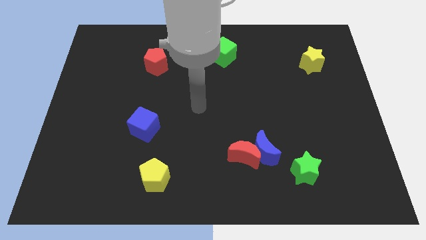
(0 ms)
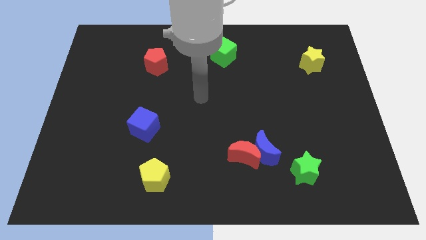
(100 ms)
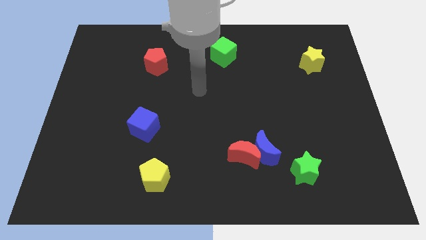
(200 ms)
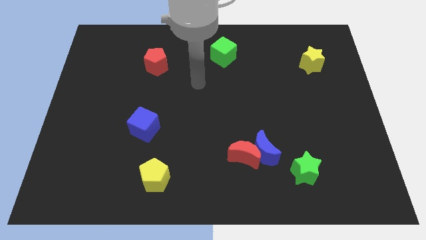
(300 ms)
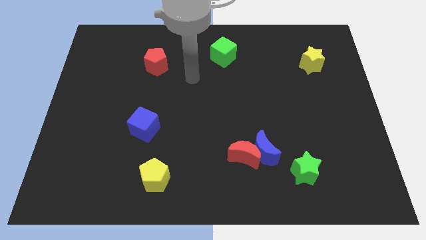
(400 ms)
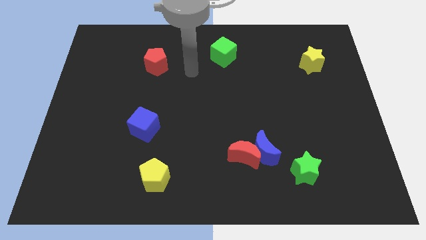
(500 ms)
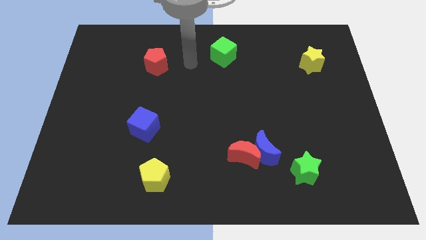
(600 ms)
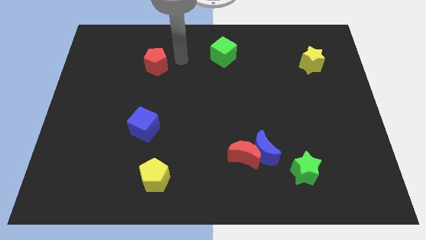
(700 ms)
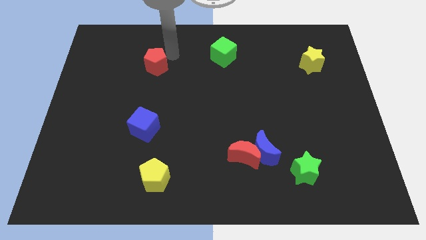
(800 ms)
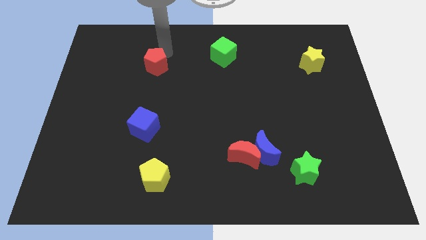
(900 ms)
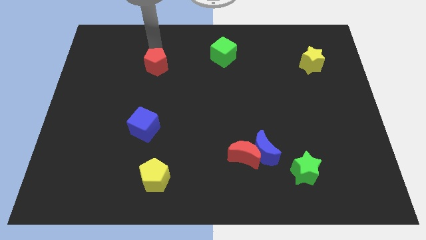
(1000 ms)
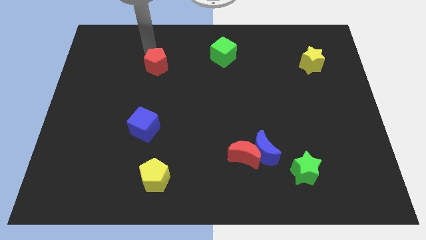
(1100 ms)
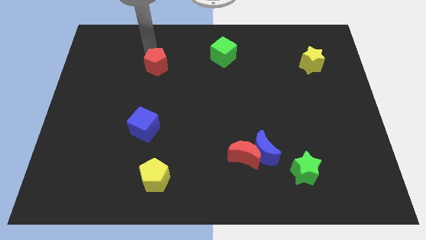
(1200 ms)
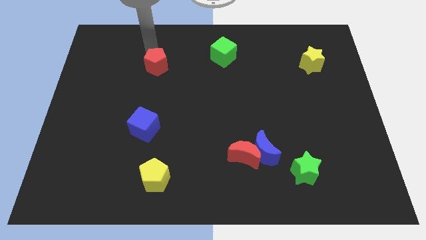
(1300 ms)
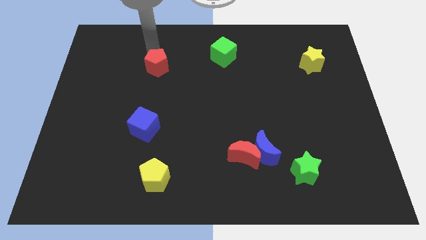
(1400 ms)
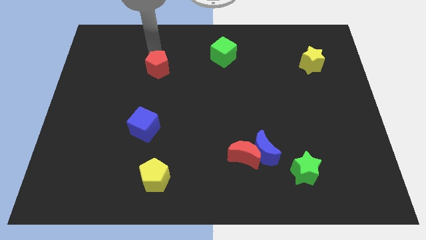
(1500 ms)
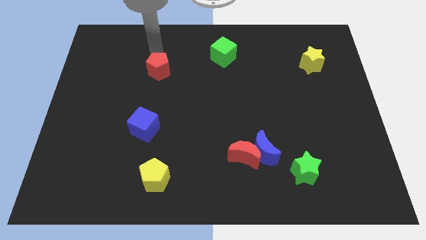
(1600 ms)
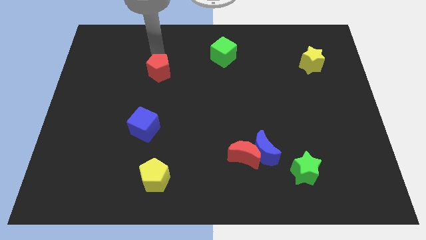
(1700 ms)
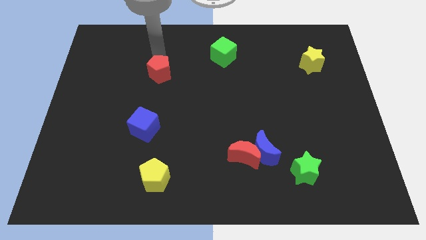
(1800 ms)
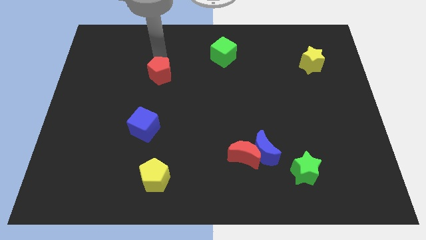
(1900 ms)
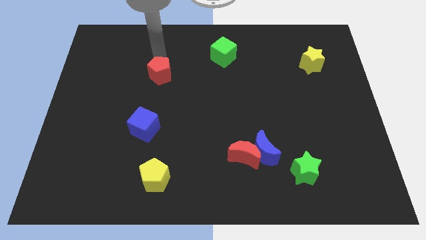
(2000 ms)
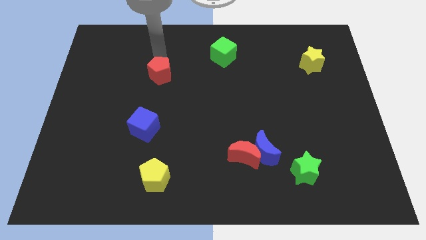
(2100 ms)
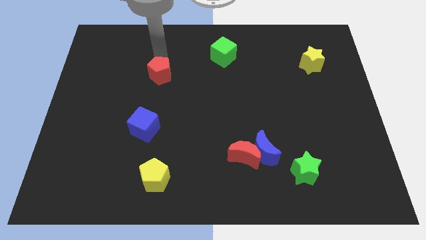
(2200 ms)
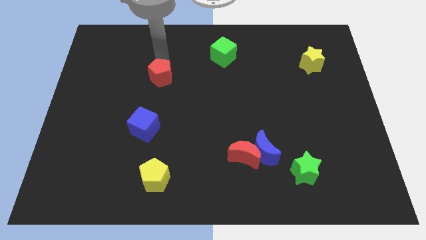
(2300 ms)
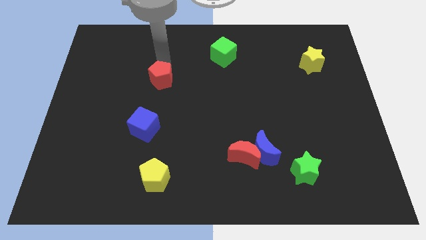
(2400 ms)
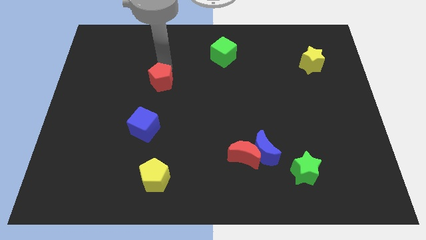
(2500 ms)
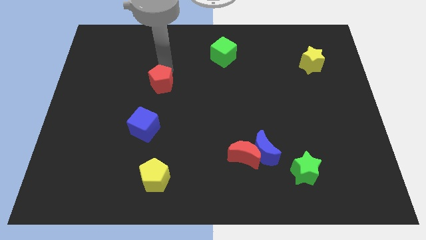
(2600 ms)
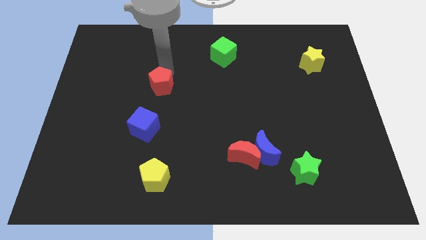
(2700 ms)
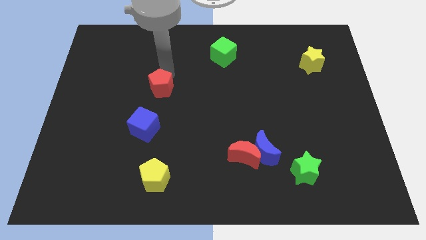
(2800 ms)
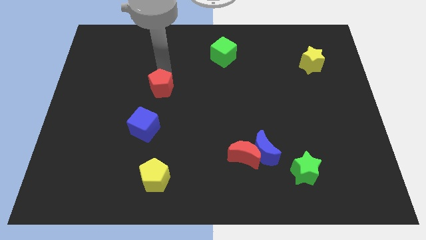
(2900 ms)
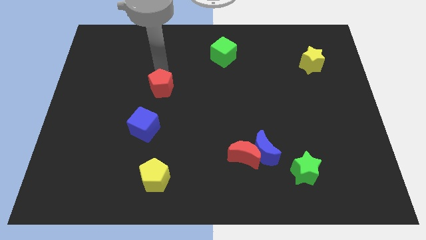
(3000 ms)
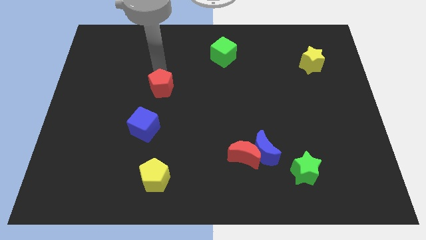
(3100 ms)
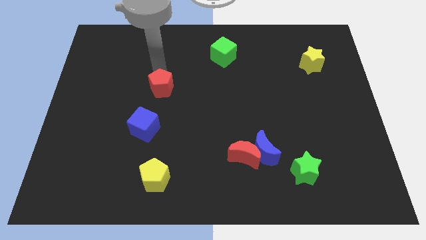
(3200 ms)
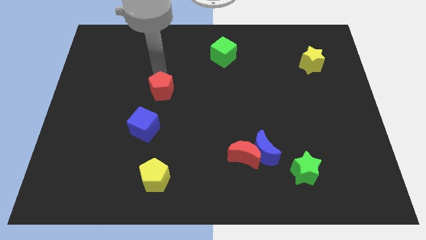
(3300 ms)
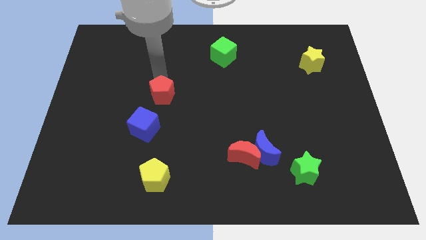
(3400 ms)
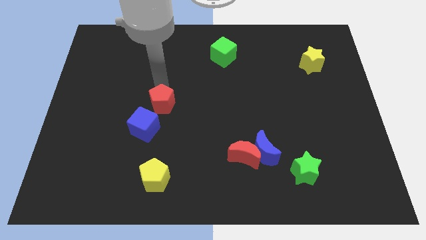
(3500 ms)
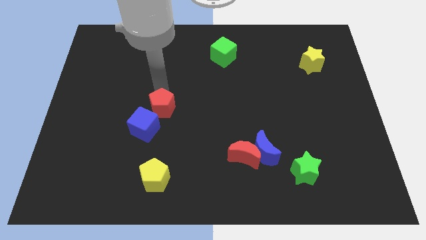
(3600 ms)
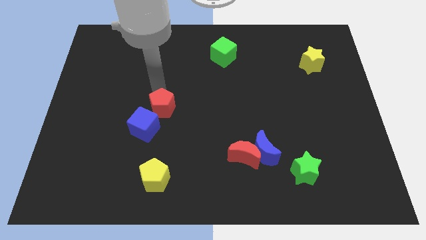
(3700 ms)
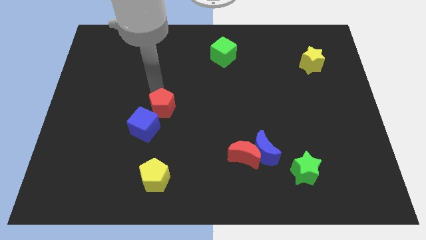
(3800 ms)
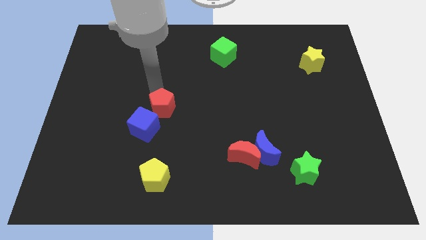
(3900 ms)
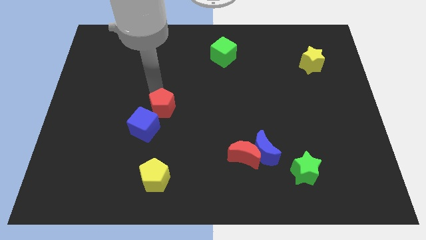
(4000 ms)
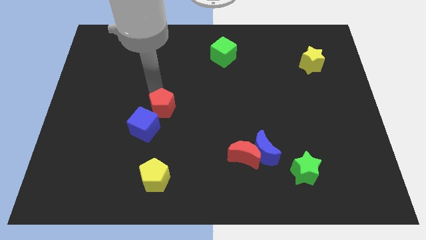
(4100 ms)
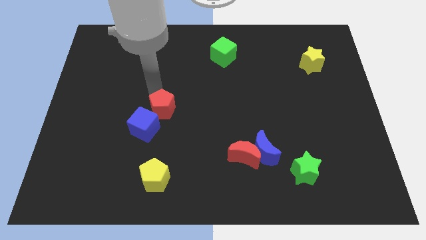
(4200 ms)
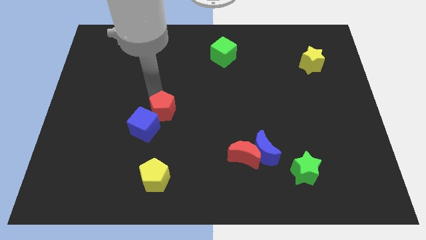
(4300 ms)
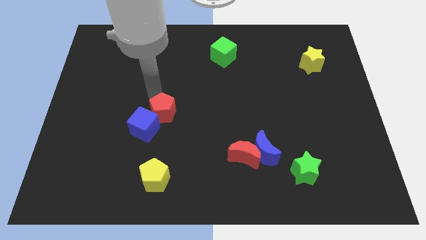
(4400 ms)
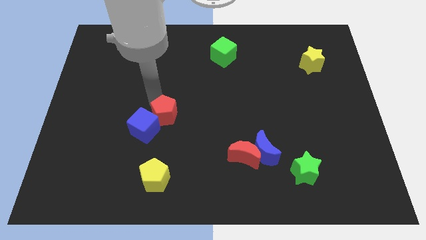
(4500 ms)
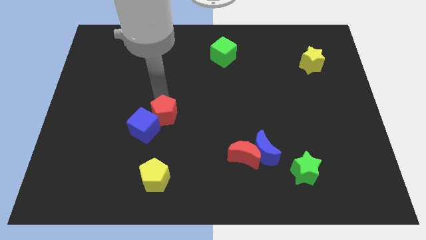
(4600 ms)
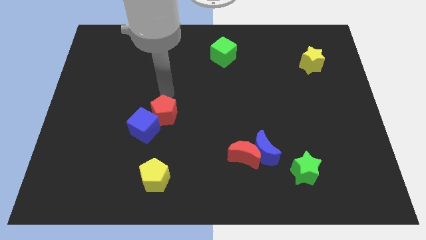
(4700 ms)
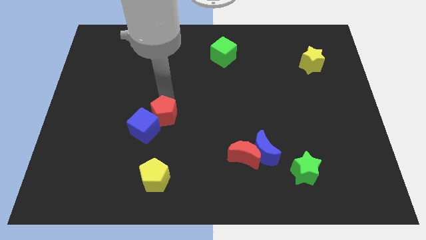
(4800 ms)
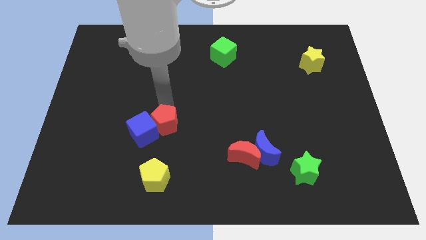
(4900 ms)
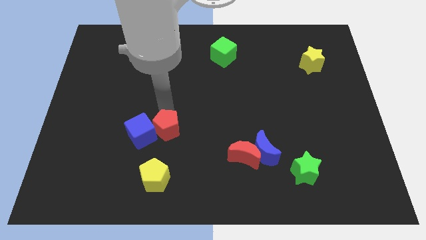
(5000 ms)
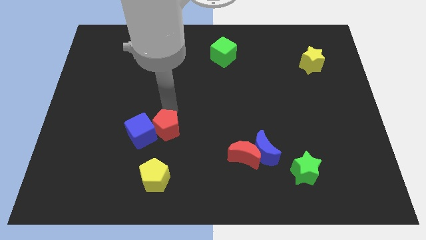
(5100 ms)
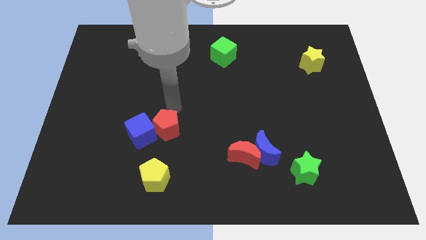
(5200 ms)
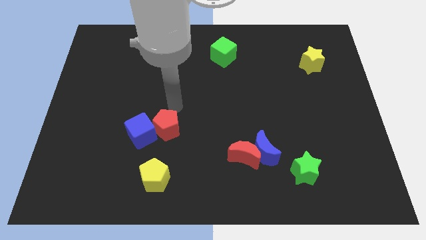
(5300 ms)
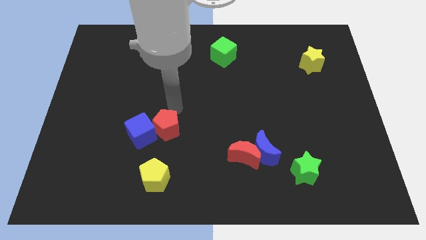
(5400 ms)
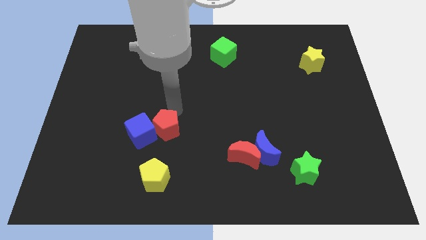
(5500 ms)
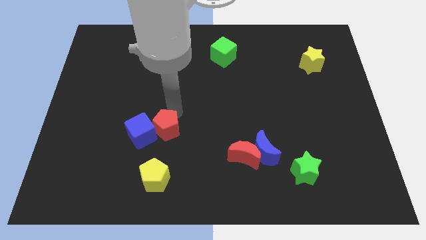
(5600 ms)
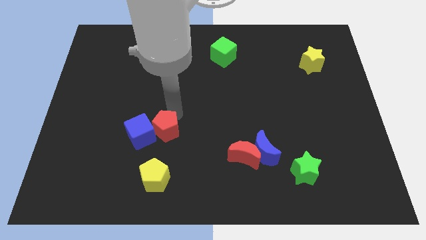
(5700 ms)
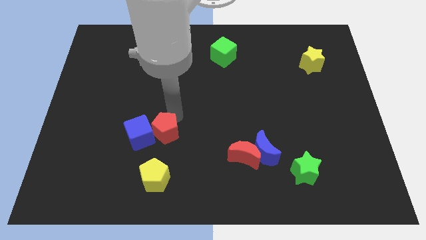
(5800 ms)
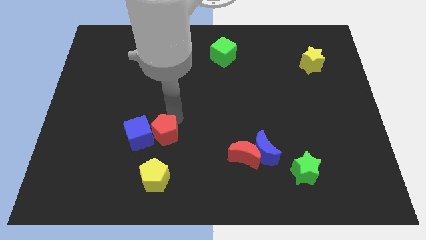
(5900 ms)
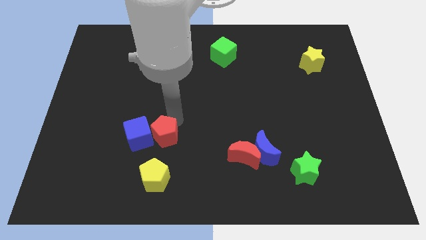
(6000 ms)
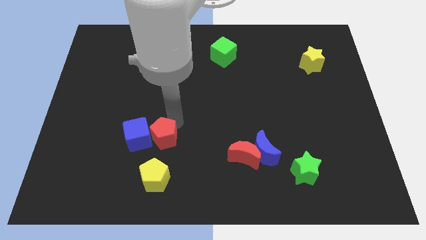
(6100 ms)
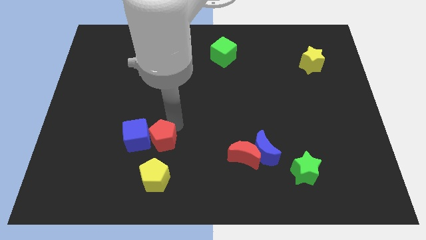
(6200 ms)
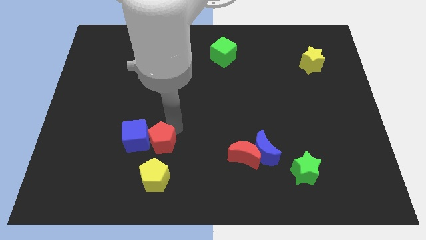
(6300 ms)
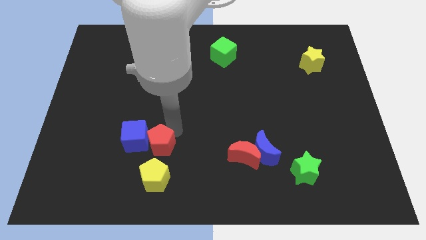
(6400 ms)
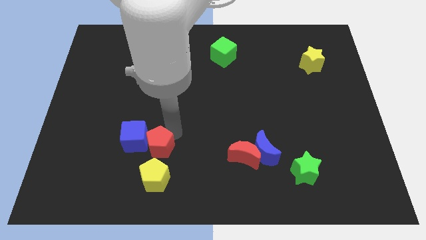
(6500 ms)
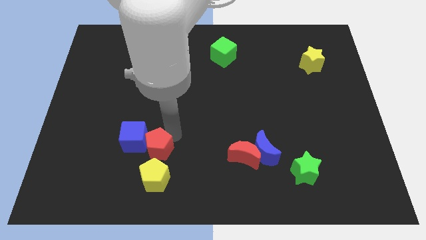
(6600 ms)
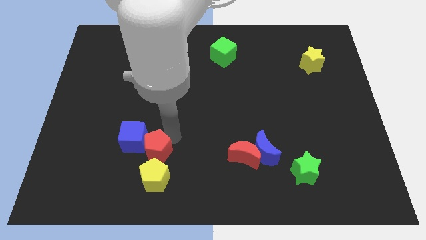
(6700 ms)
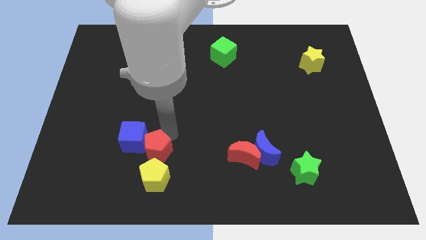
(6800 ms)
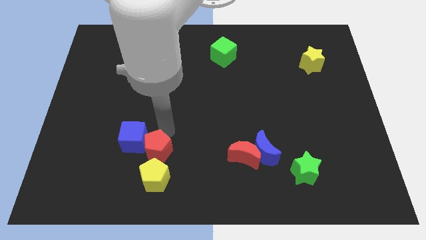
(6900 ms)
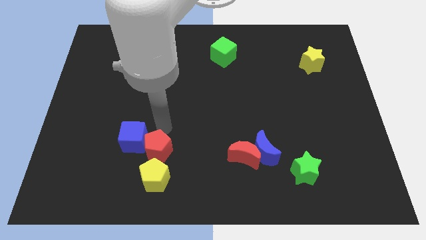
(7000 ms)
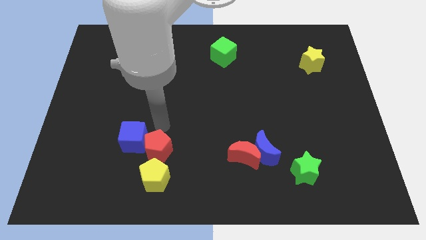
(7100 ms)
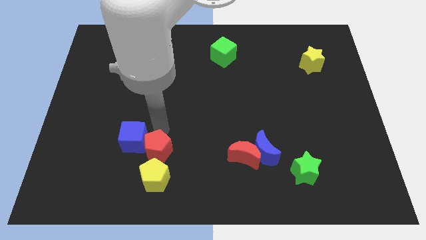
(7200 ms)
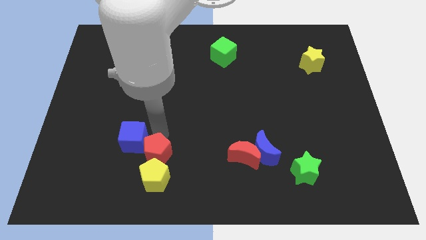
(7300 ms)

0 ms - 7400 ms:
put the red pentagon to the yellow pentagon
